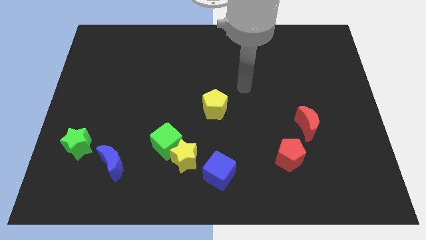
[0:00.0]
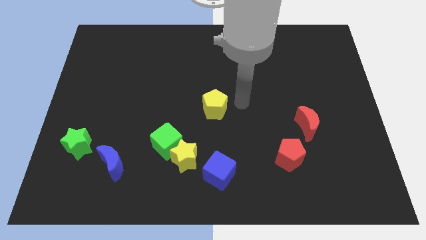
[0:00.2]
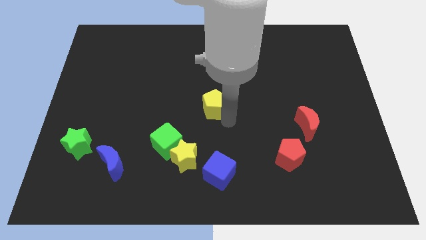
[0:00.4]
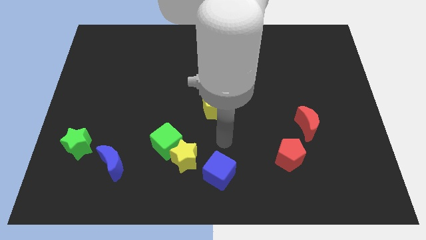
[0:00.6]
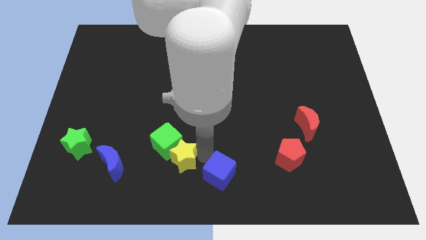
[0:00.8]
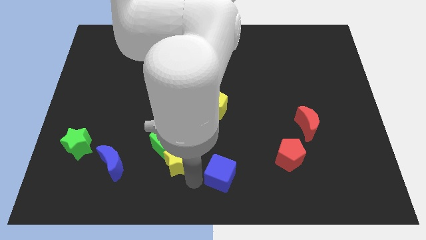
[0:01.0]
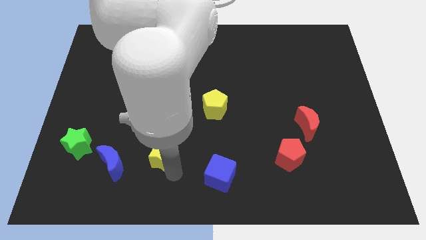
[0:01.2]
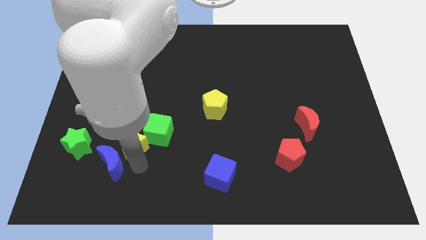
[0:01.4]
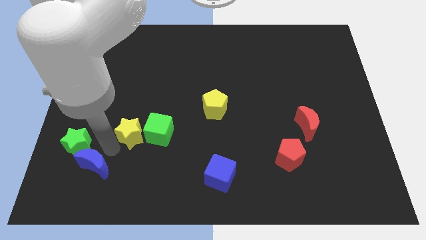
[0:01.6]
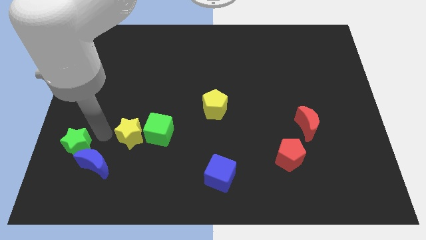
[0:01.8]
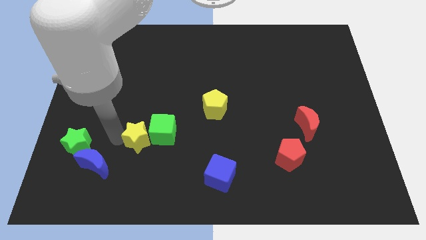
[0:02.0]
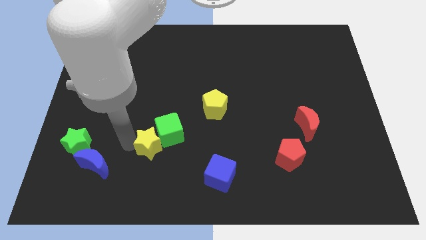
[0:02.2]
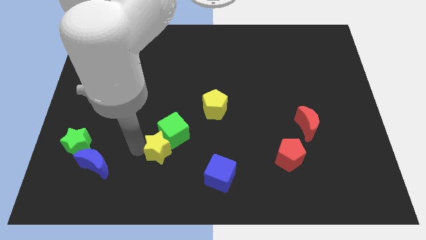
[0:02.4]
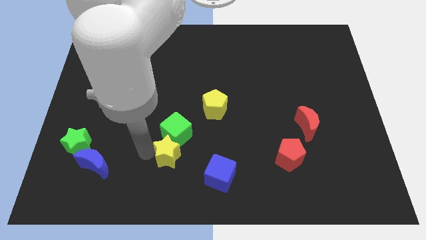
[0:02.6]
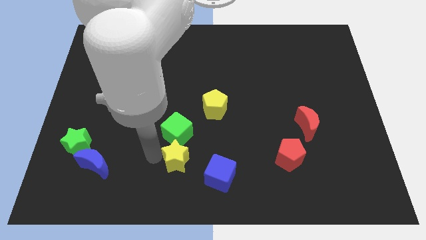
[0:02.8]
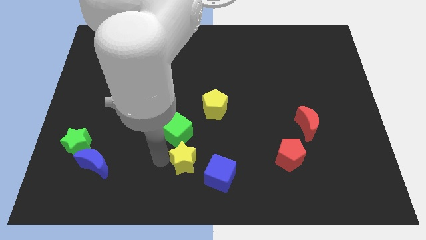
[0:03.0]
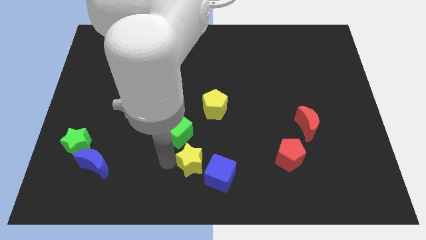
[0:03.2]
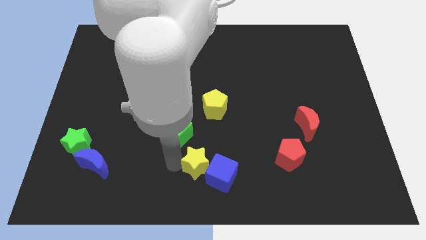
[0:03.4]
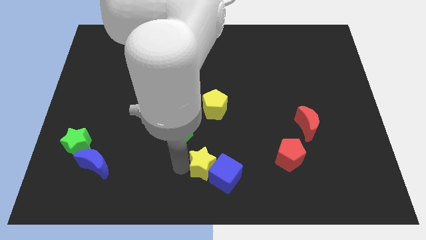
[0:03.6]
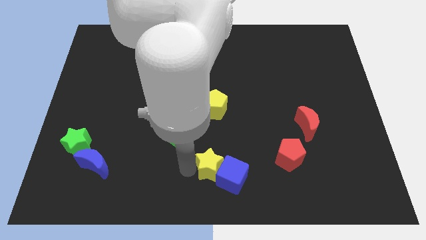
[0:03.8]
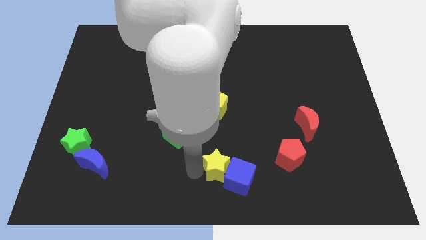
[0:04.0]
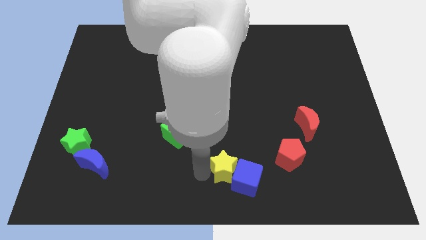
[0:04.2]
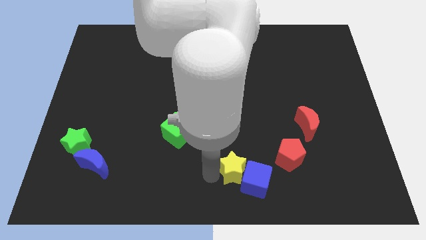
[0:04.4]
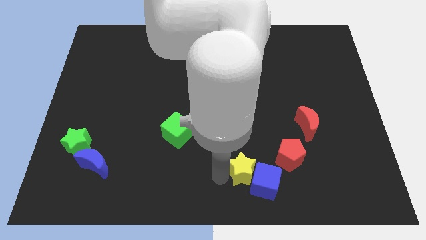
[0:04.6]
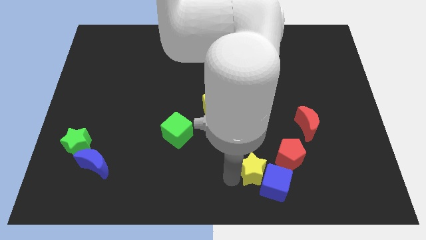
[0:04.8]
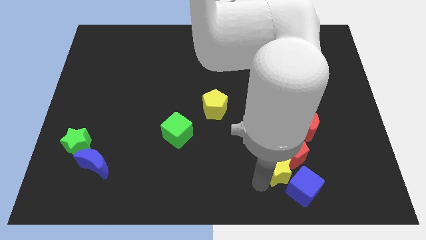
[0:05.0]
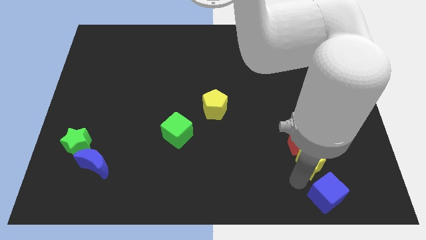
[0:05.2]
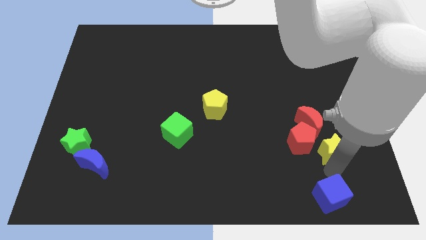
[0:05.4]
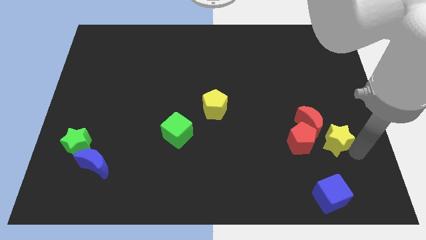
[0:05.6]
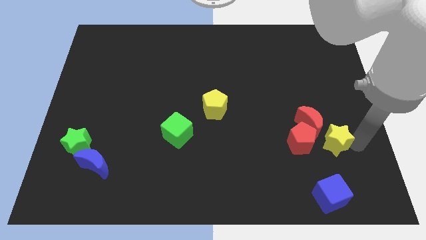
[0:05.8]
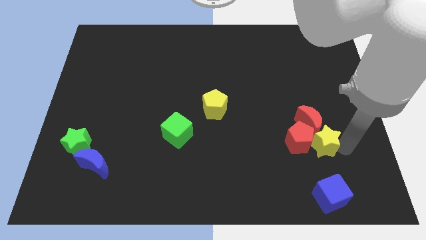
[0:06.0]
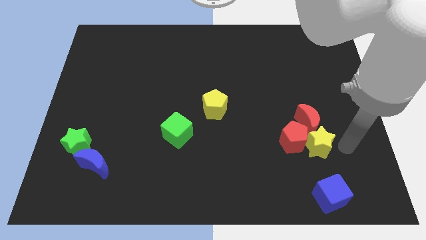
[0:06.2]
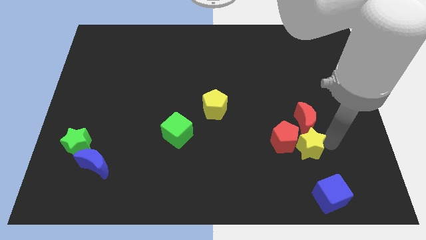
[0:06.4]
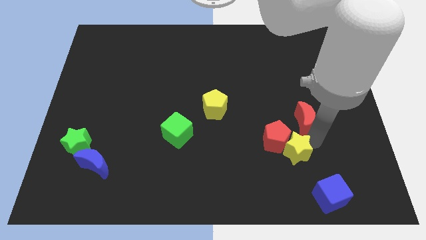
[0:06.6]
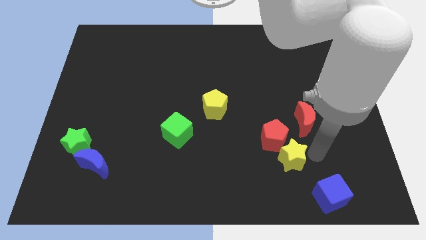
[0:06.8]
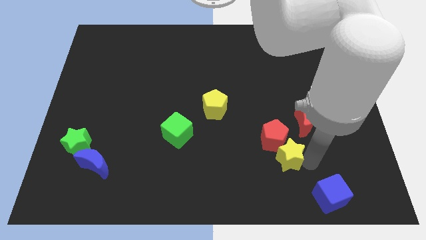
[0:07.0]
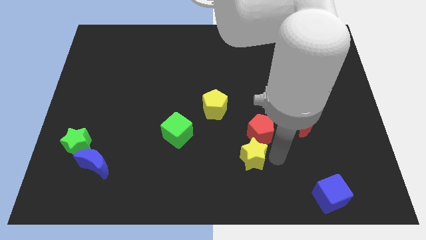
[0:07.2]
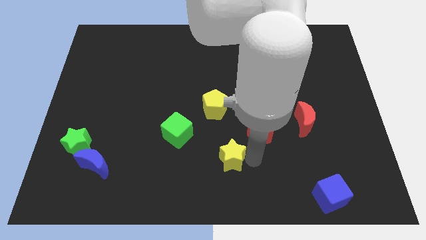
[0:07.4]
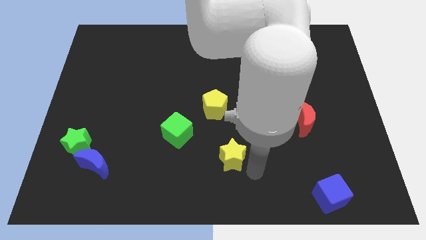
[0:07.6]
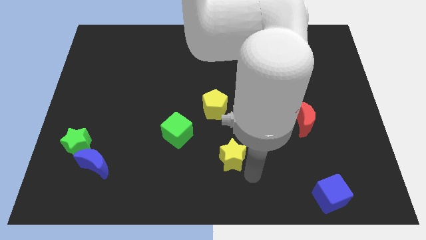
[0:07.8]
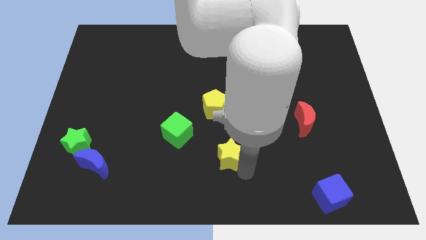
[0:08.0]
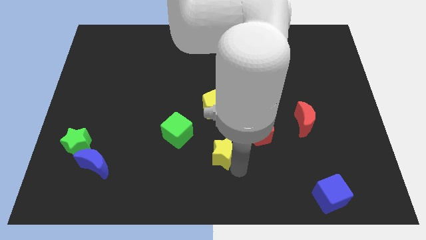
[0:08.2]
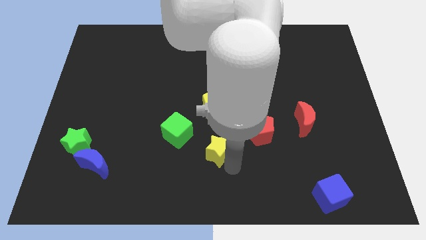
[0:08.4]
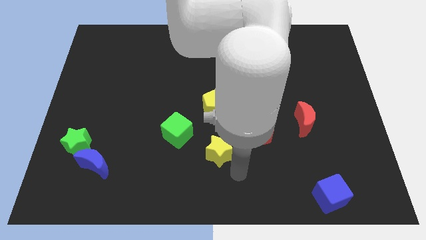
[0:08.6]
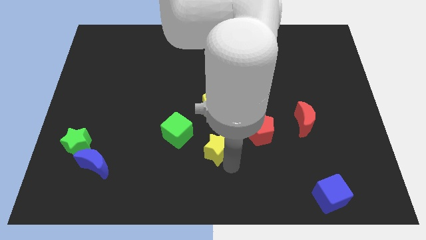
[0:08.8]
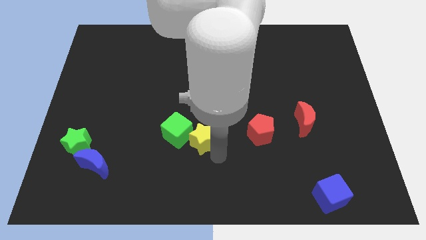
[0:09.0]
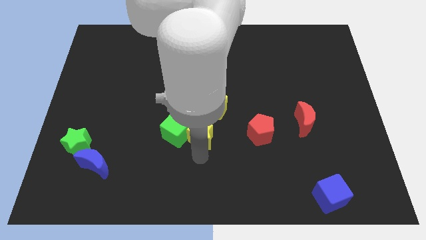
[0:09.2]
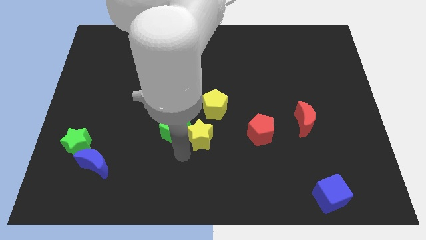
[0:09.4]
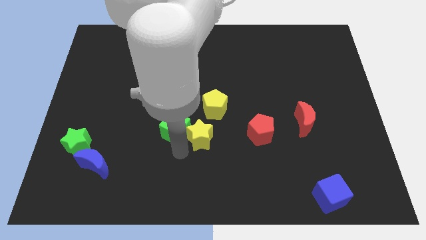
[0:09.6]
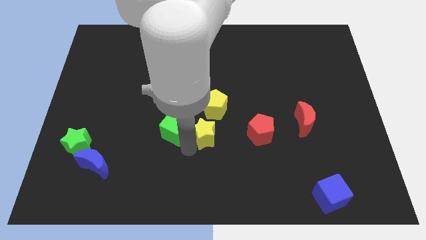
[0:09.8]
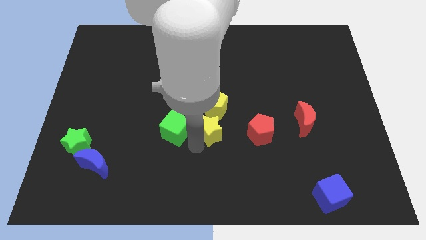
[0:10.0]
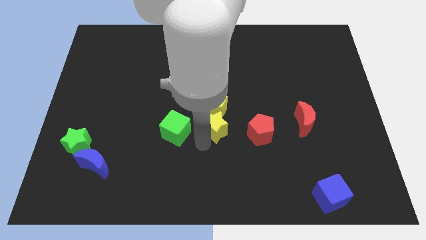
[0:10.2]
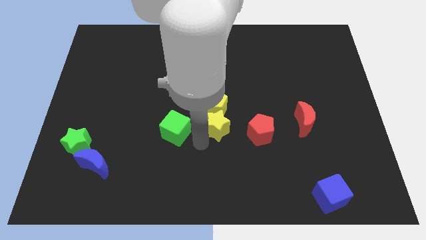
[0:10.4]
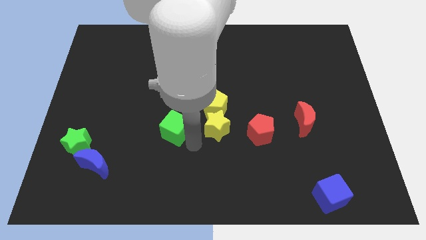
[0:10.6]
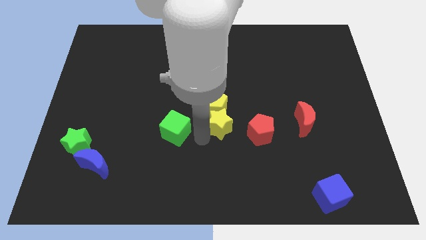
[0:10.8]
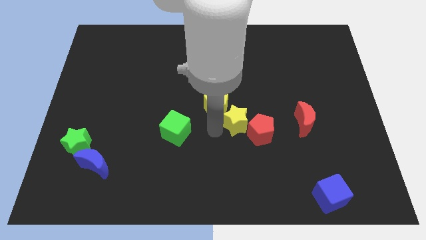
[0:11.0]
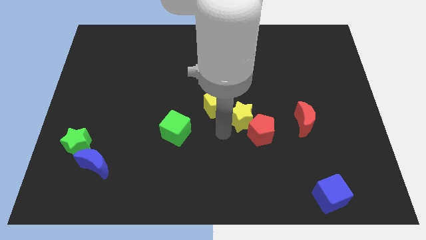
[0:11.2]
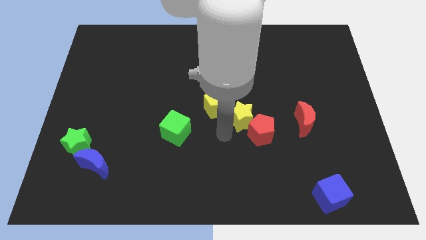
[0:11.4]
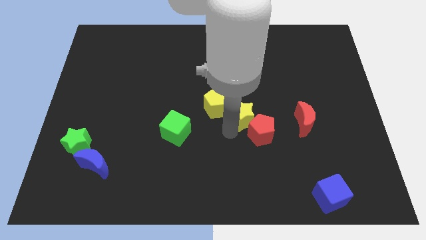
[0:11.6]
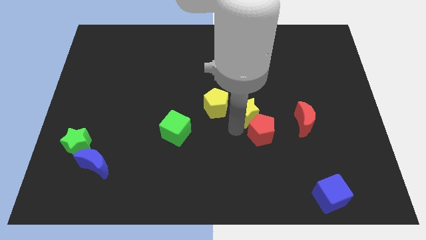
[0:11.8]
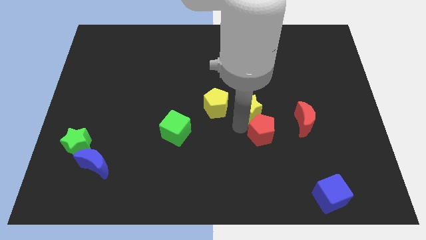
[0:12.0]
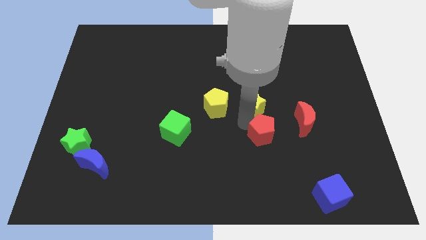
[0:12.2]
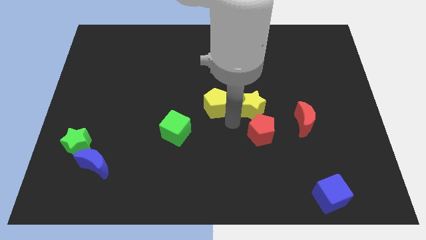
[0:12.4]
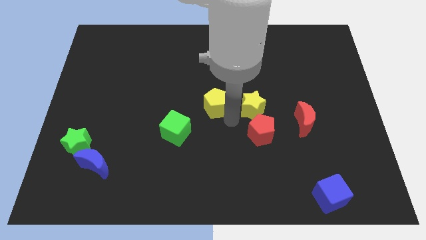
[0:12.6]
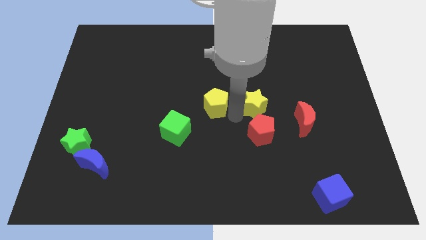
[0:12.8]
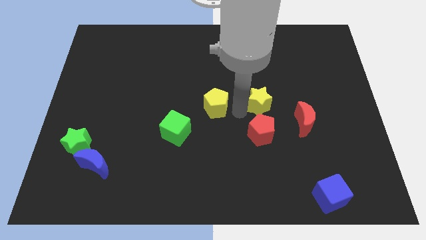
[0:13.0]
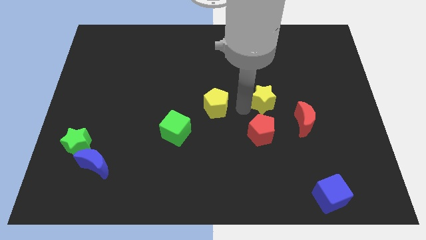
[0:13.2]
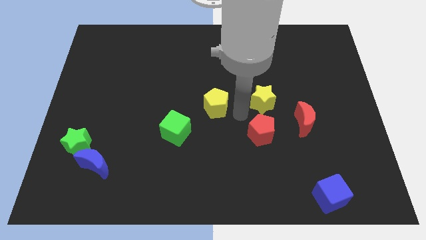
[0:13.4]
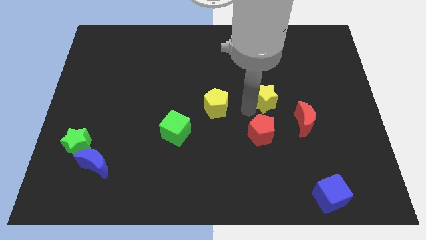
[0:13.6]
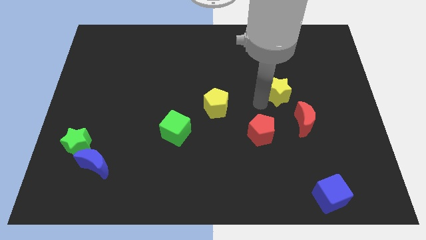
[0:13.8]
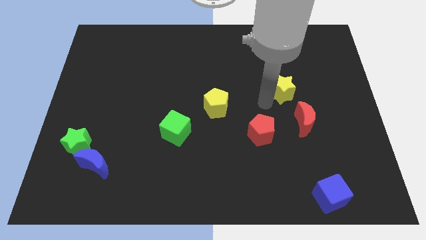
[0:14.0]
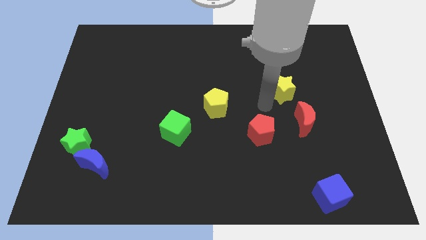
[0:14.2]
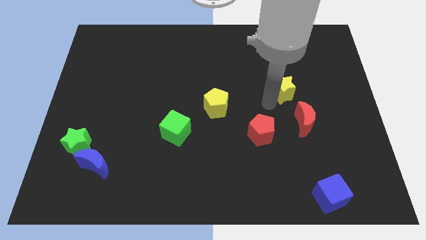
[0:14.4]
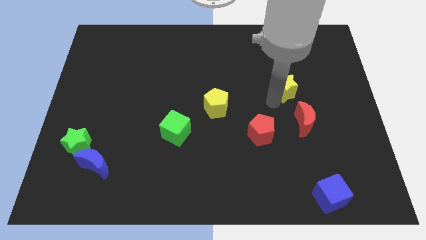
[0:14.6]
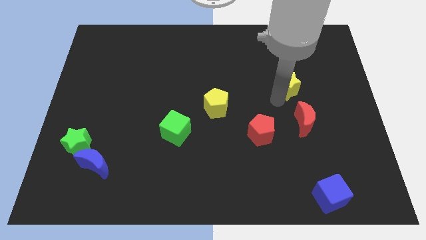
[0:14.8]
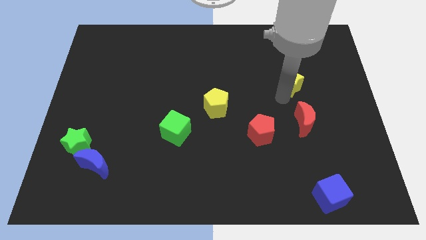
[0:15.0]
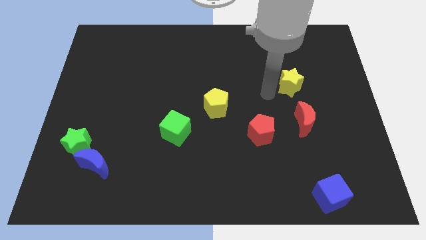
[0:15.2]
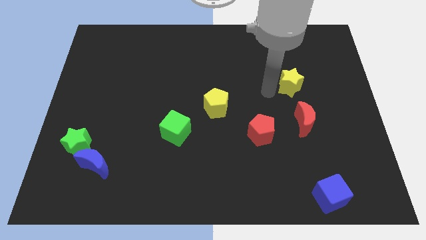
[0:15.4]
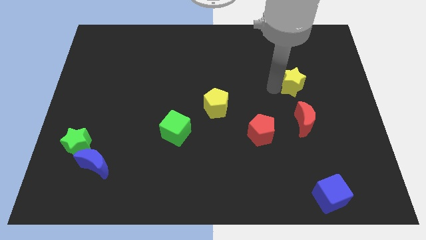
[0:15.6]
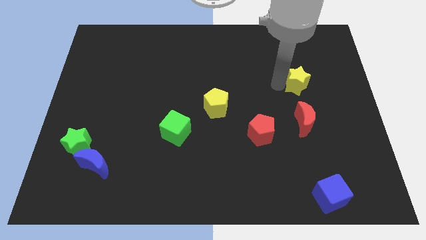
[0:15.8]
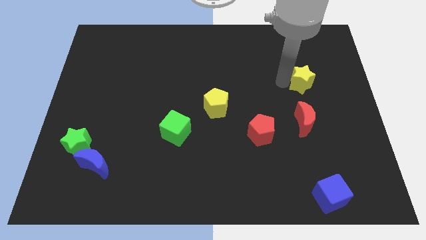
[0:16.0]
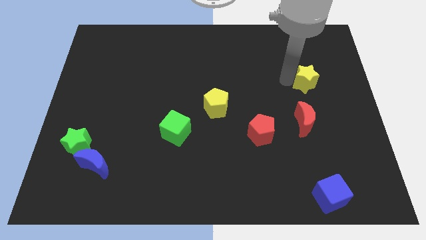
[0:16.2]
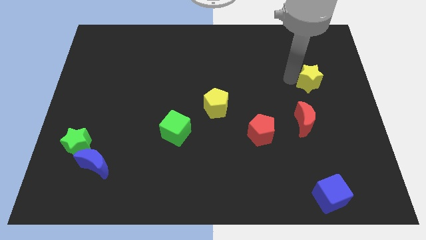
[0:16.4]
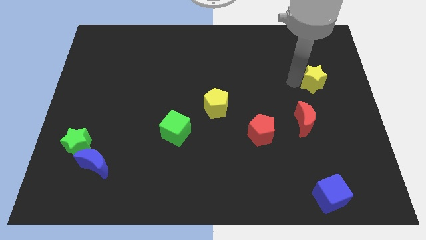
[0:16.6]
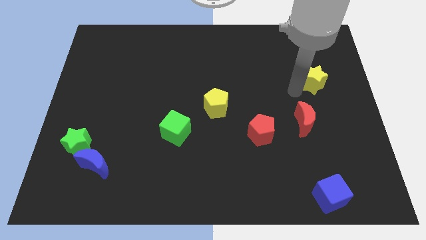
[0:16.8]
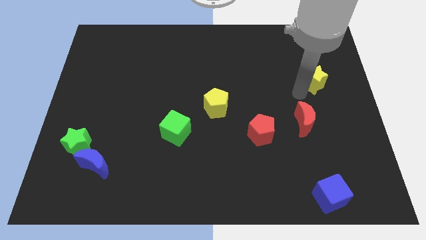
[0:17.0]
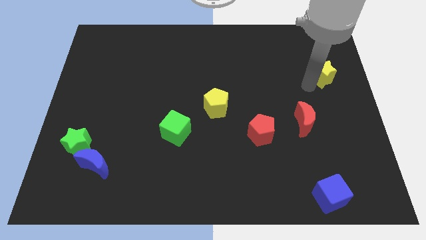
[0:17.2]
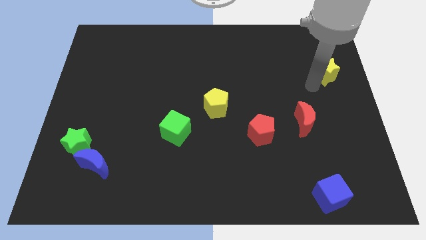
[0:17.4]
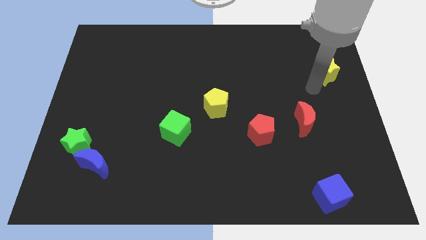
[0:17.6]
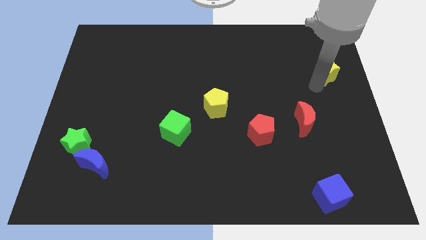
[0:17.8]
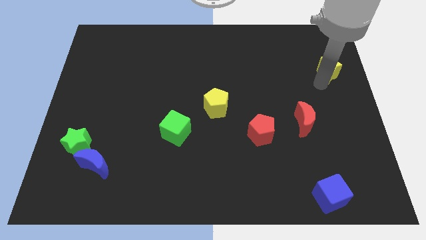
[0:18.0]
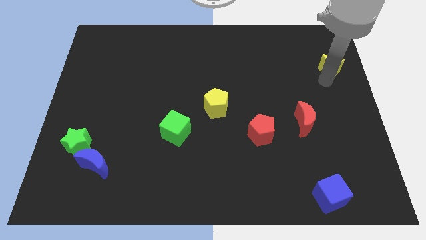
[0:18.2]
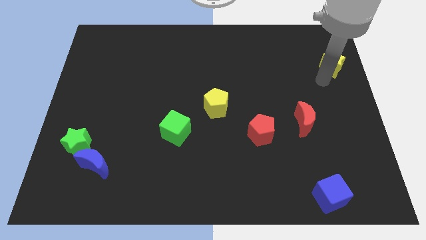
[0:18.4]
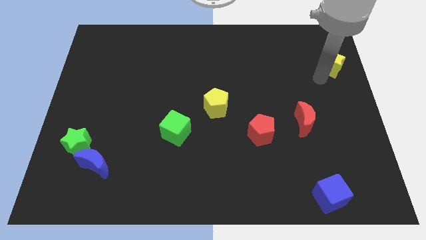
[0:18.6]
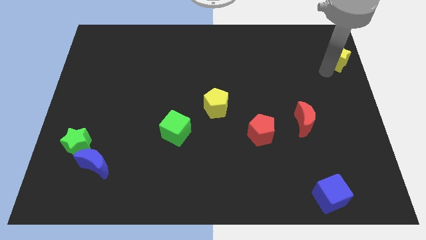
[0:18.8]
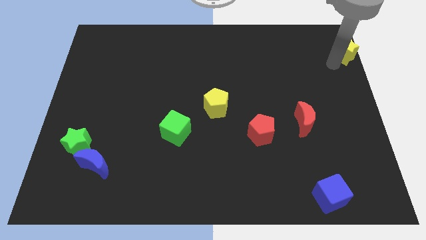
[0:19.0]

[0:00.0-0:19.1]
move the yellow star to the top right
